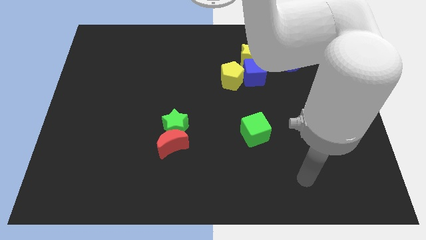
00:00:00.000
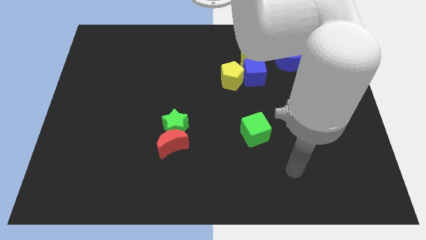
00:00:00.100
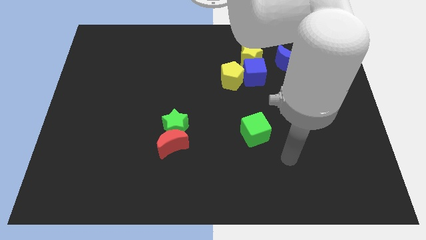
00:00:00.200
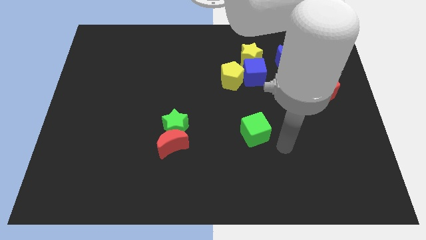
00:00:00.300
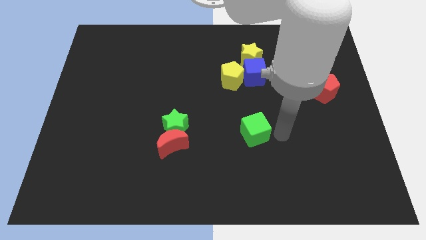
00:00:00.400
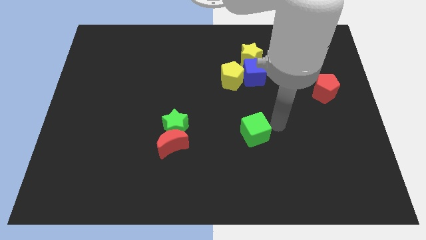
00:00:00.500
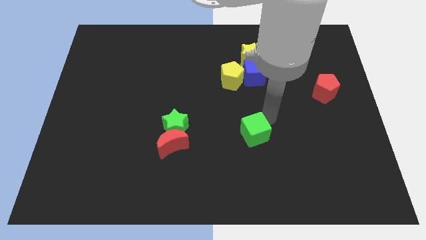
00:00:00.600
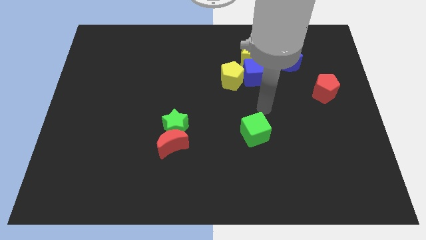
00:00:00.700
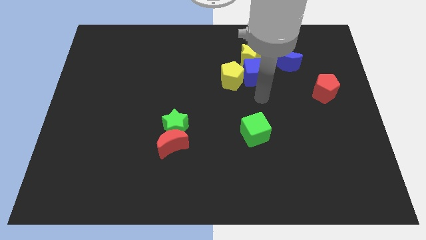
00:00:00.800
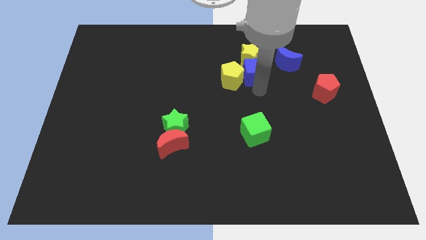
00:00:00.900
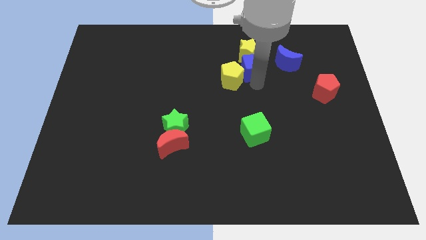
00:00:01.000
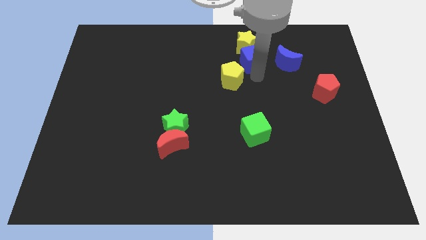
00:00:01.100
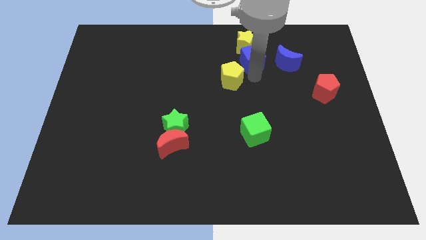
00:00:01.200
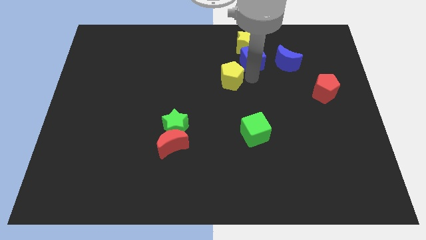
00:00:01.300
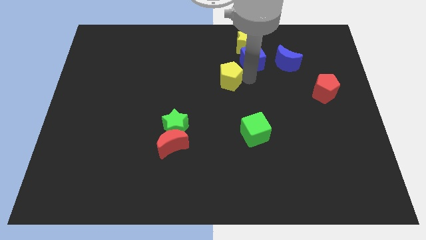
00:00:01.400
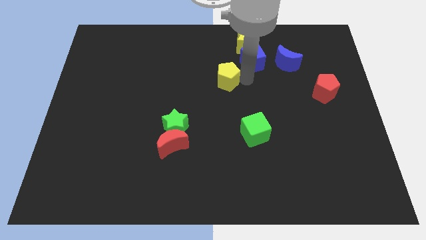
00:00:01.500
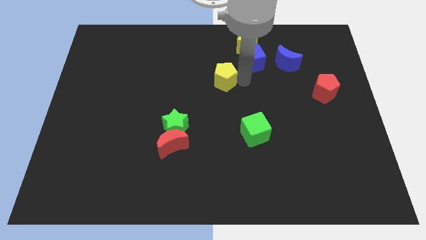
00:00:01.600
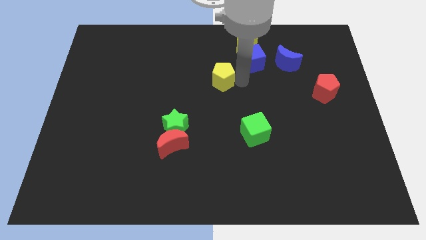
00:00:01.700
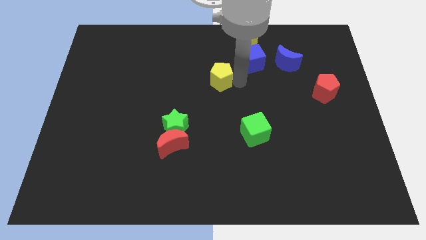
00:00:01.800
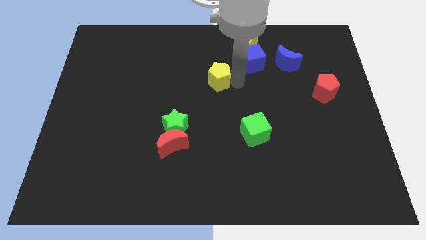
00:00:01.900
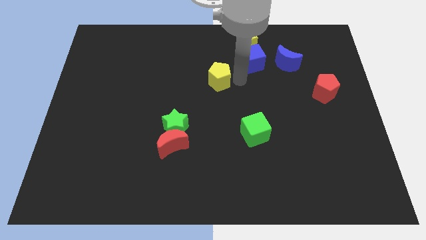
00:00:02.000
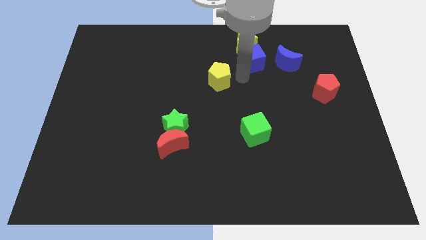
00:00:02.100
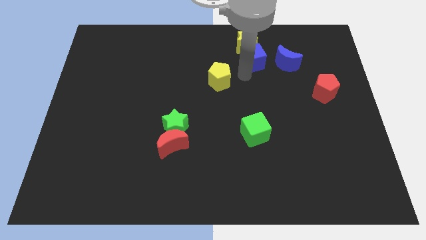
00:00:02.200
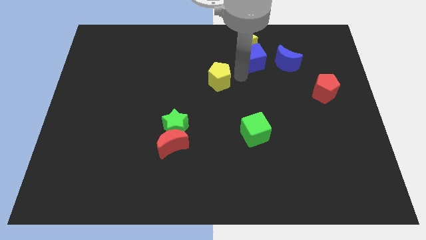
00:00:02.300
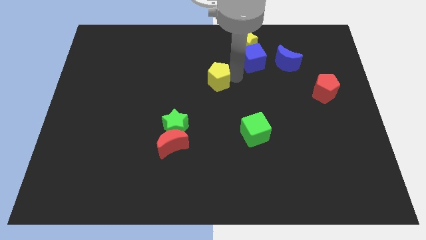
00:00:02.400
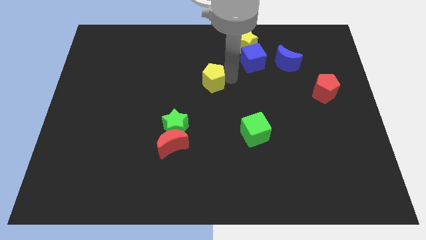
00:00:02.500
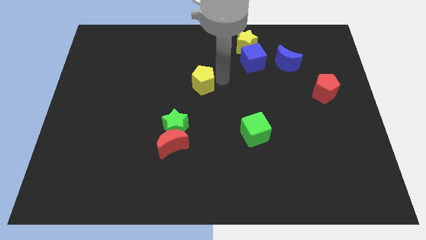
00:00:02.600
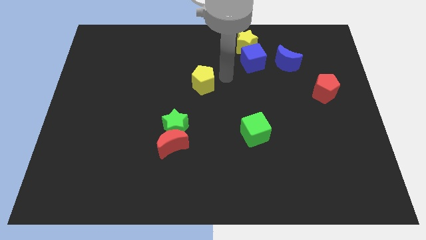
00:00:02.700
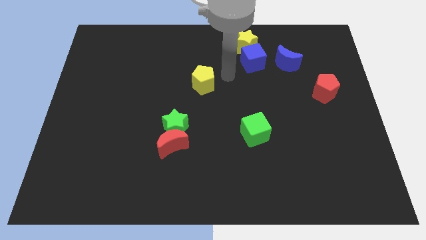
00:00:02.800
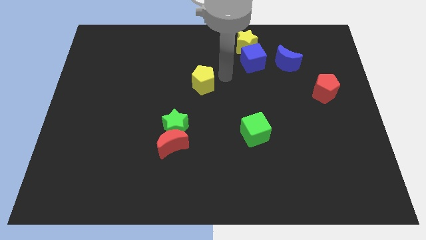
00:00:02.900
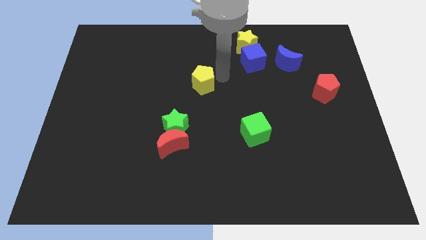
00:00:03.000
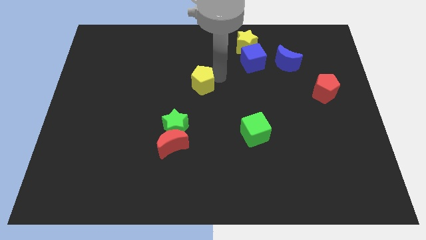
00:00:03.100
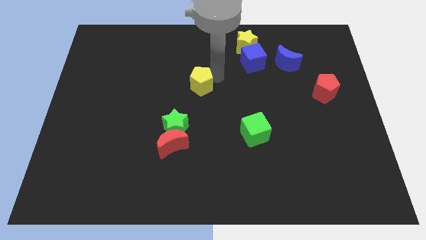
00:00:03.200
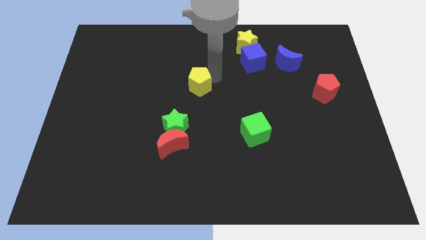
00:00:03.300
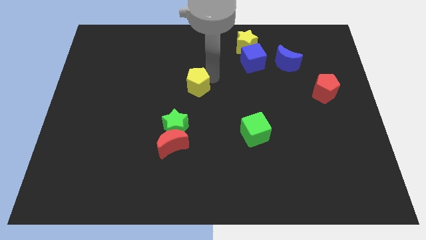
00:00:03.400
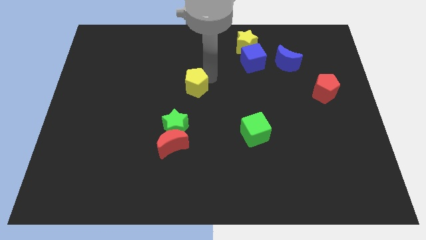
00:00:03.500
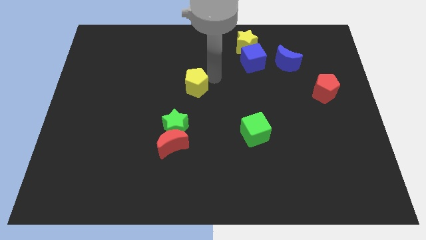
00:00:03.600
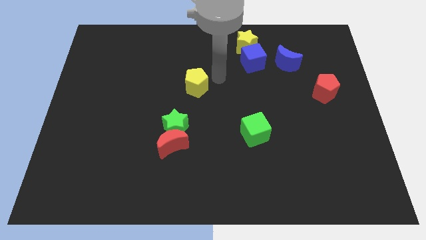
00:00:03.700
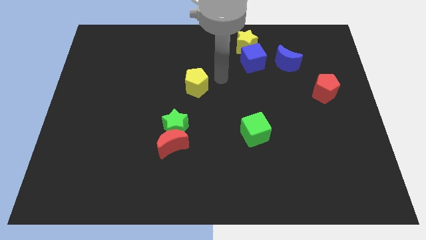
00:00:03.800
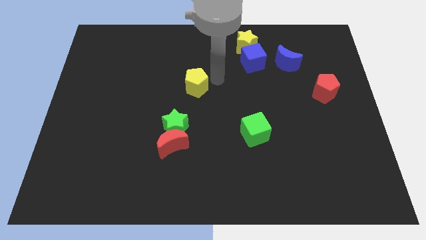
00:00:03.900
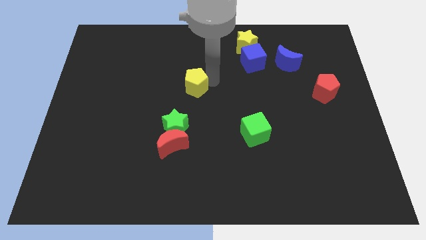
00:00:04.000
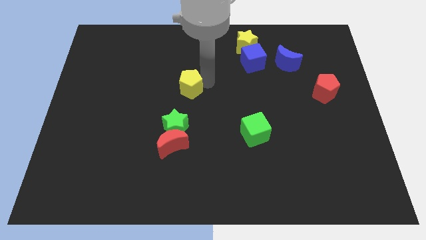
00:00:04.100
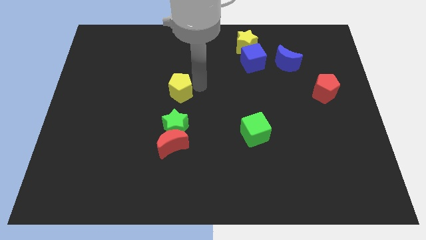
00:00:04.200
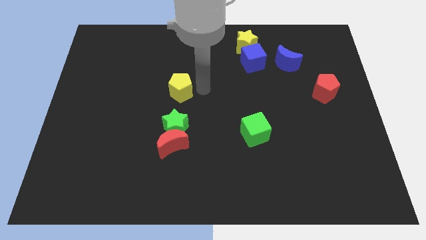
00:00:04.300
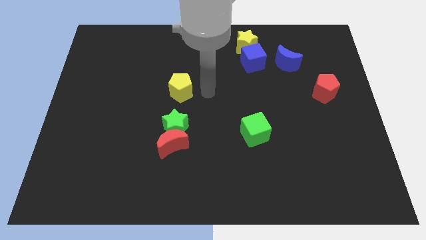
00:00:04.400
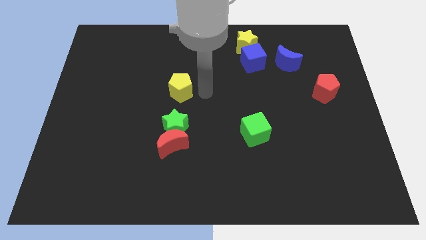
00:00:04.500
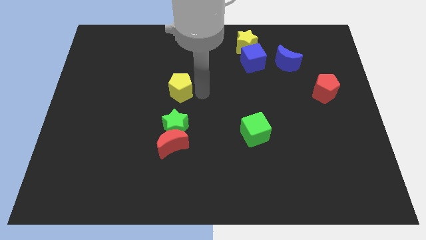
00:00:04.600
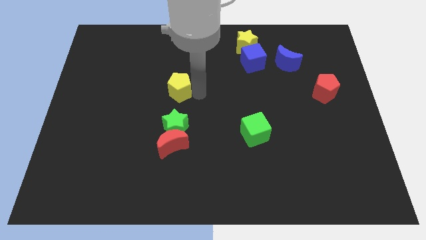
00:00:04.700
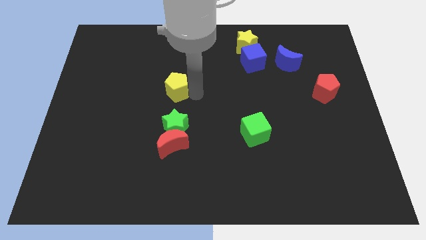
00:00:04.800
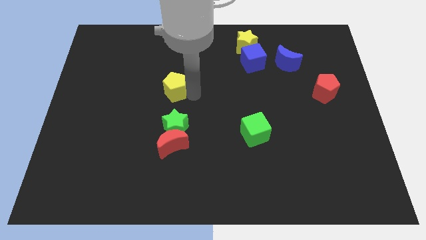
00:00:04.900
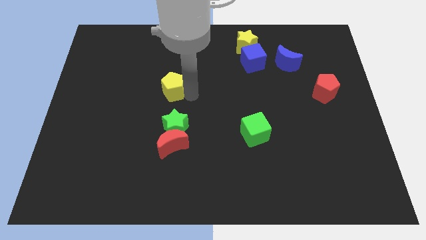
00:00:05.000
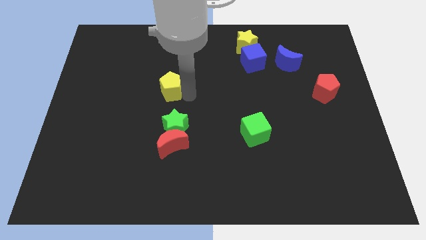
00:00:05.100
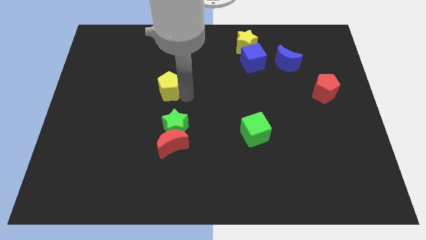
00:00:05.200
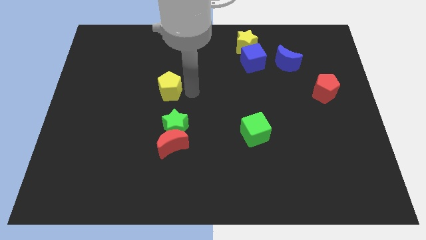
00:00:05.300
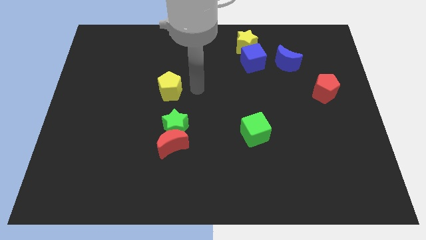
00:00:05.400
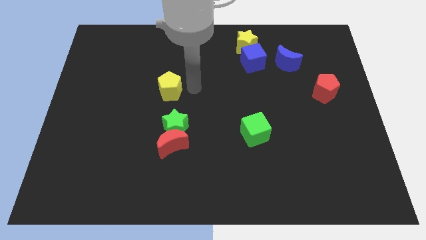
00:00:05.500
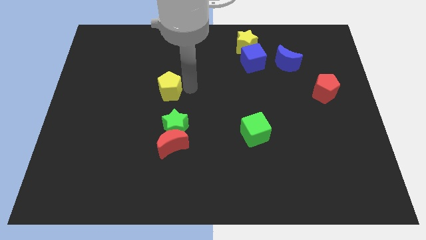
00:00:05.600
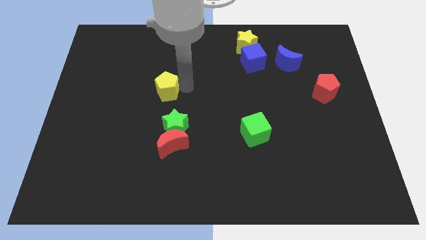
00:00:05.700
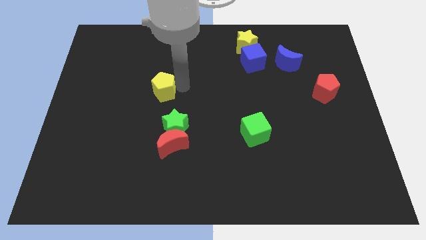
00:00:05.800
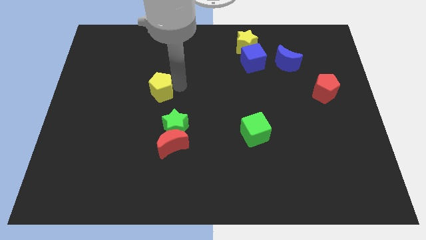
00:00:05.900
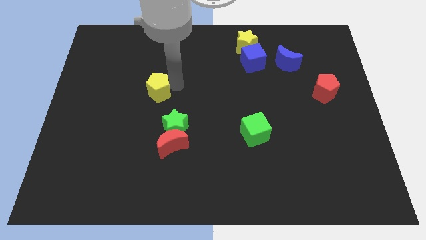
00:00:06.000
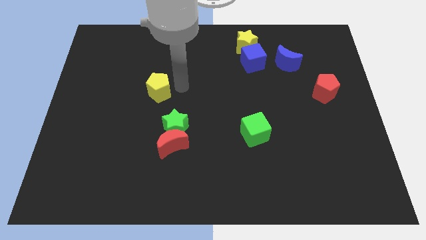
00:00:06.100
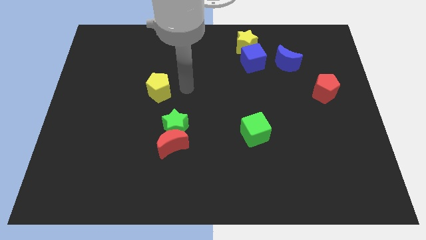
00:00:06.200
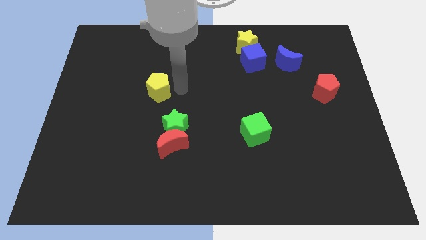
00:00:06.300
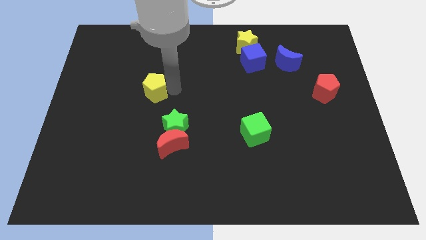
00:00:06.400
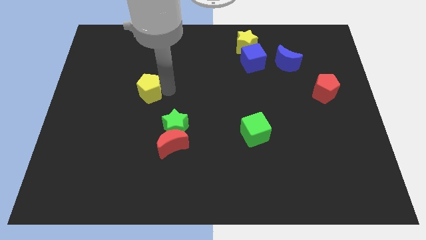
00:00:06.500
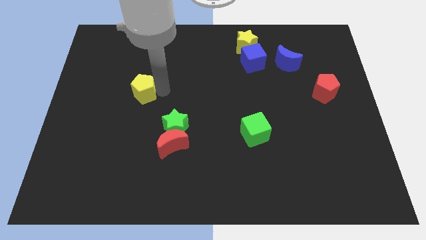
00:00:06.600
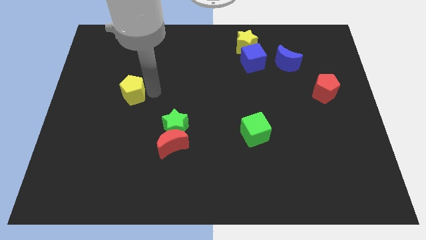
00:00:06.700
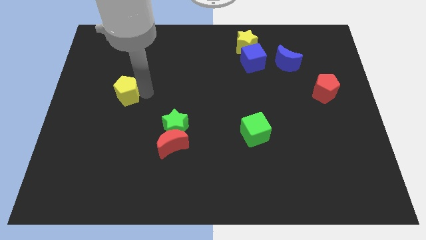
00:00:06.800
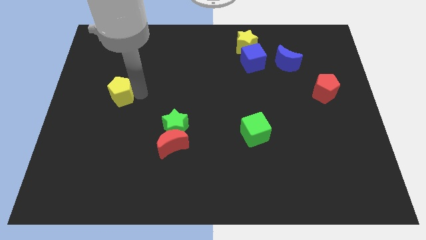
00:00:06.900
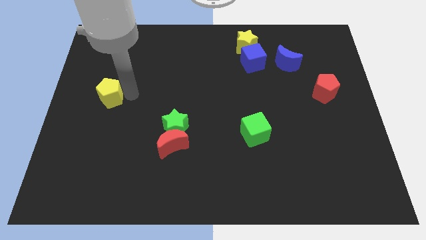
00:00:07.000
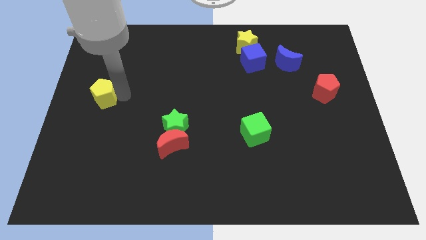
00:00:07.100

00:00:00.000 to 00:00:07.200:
put the yellow pentagon to the left side
